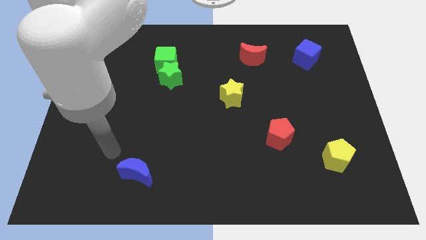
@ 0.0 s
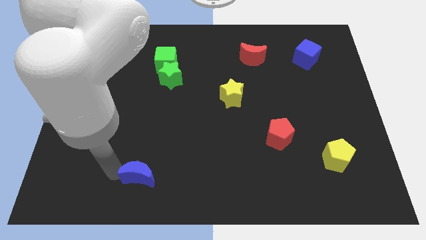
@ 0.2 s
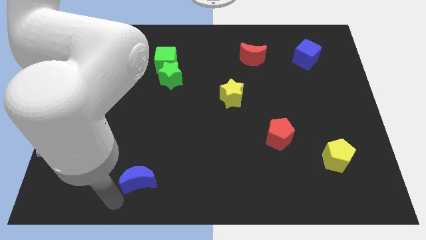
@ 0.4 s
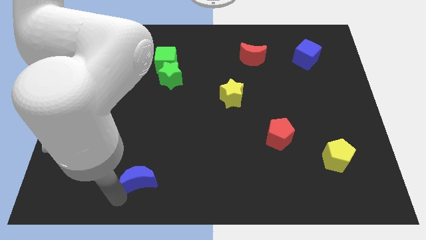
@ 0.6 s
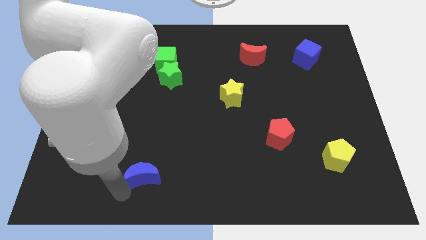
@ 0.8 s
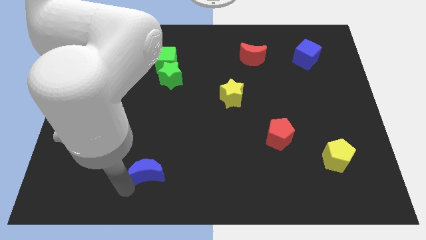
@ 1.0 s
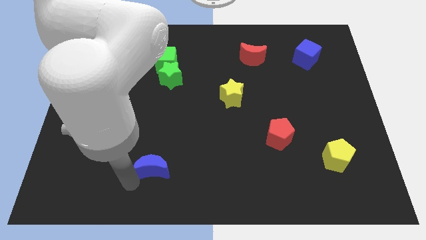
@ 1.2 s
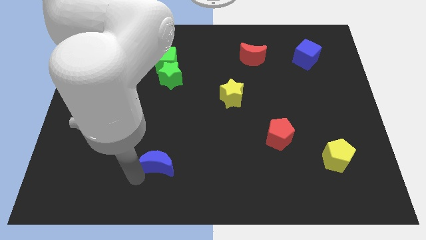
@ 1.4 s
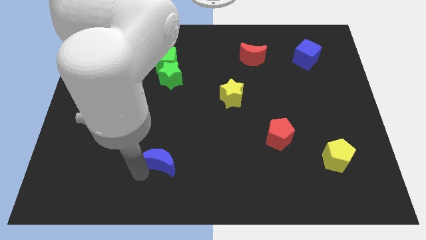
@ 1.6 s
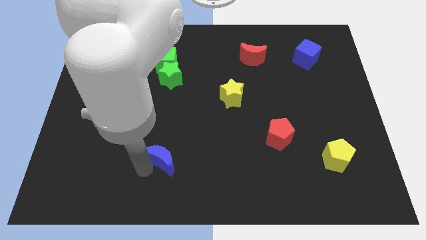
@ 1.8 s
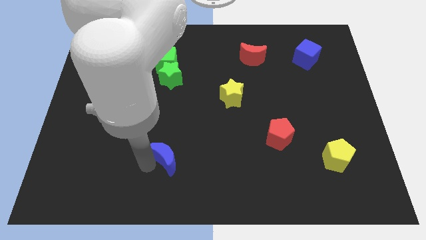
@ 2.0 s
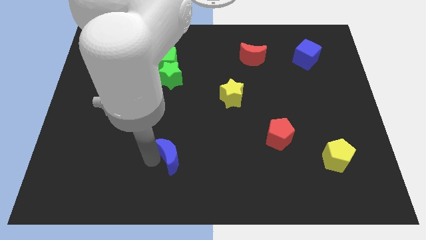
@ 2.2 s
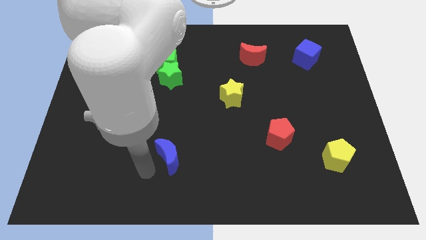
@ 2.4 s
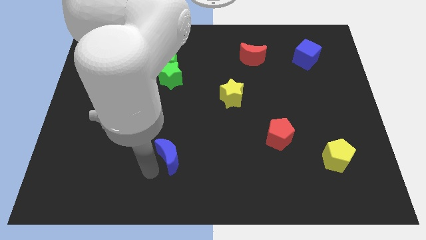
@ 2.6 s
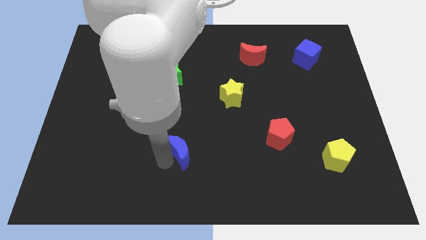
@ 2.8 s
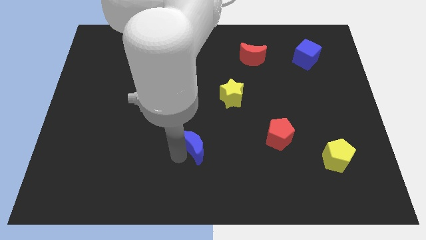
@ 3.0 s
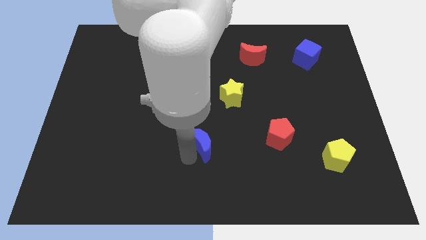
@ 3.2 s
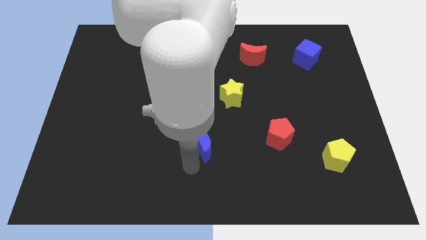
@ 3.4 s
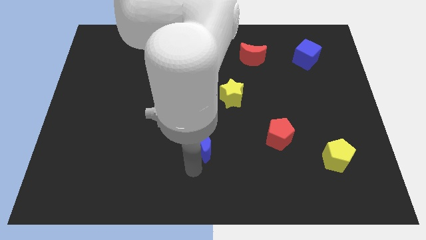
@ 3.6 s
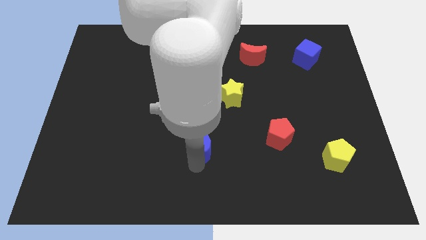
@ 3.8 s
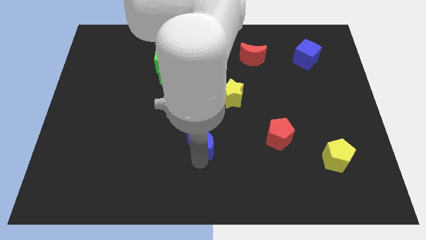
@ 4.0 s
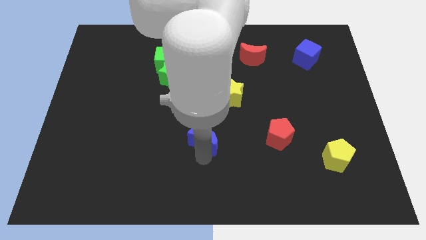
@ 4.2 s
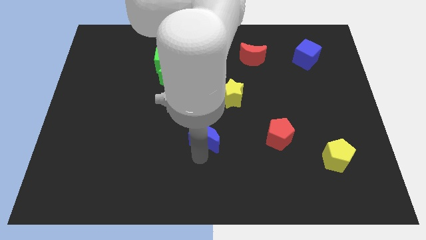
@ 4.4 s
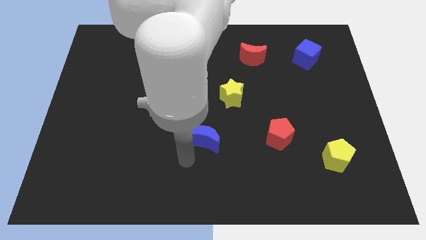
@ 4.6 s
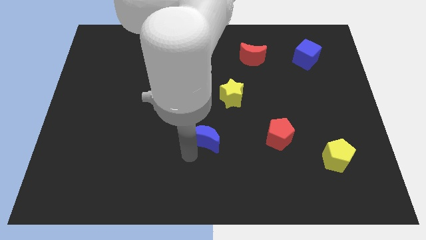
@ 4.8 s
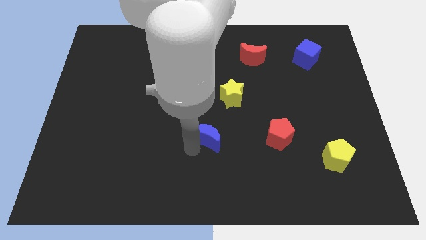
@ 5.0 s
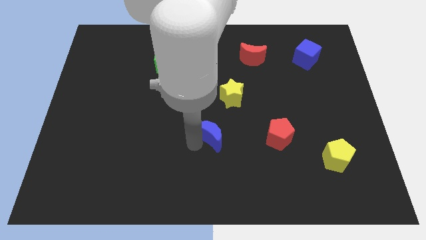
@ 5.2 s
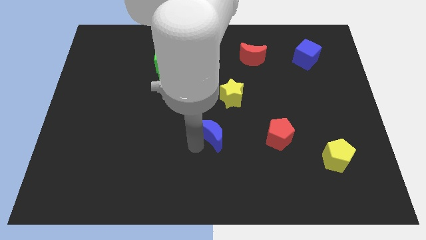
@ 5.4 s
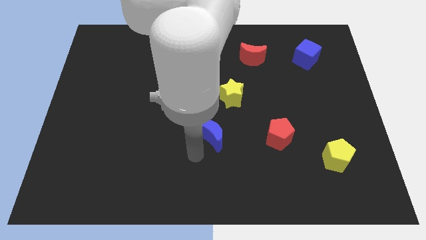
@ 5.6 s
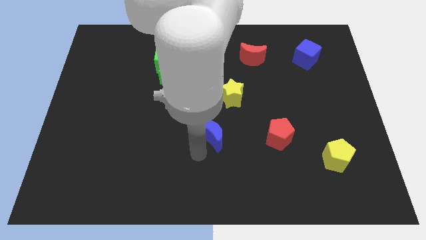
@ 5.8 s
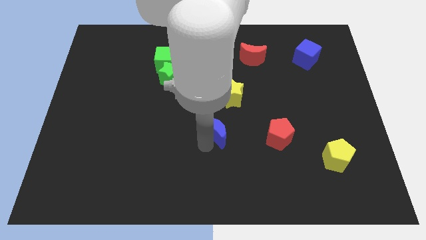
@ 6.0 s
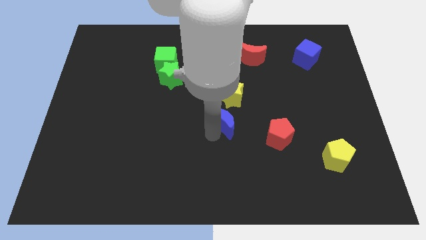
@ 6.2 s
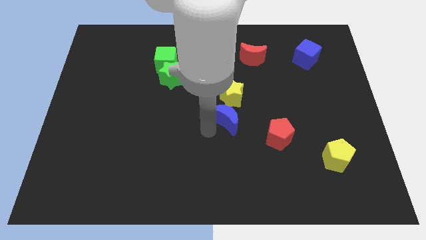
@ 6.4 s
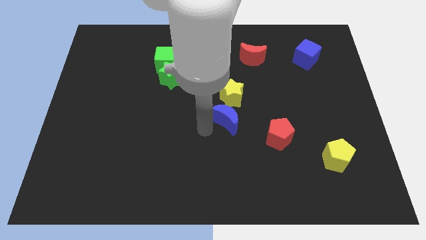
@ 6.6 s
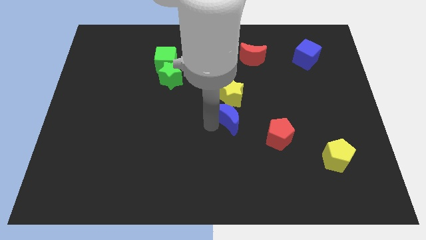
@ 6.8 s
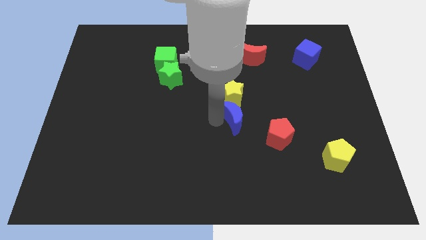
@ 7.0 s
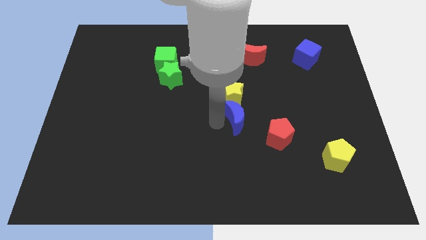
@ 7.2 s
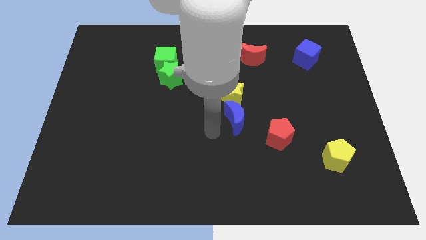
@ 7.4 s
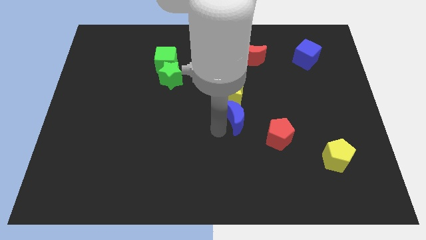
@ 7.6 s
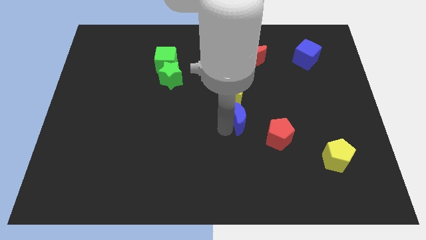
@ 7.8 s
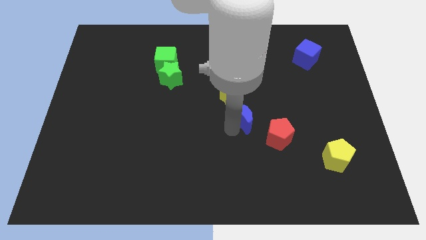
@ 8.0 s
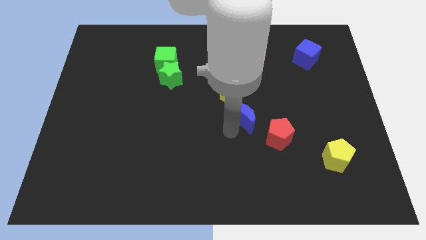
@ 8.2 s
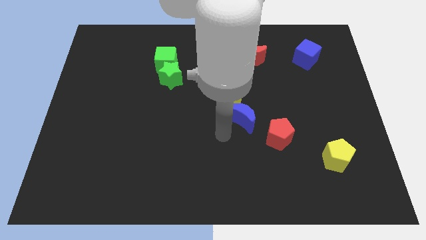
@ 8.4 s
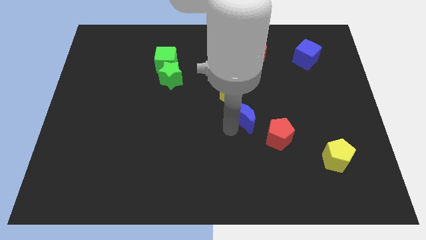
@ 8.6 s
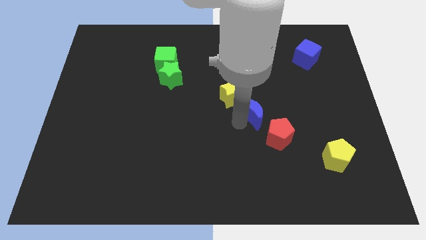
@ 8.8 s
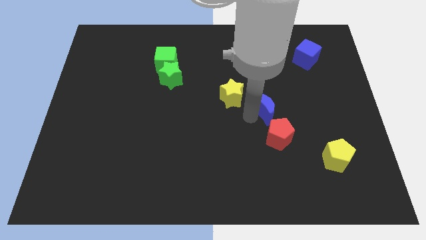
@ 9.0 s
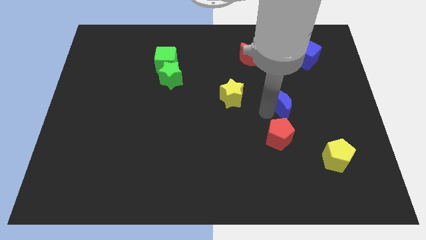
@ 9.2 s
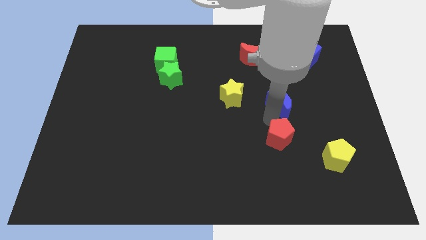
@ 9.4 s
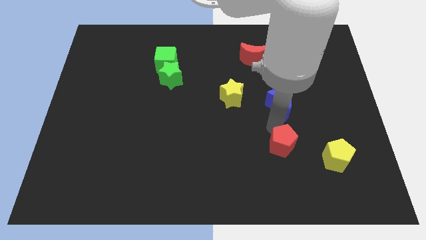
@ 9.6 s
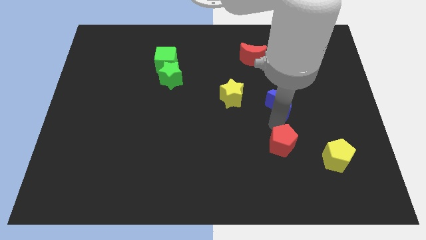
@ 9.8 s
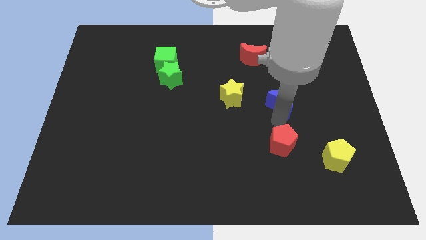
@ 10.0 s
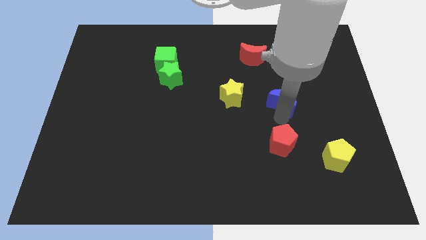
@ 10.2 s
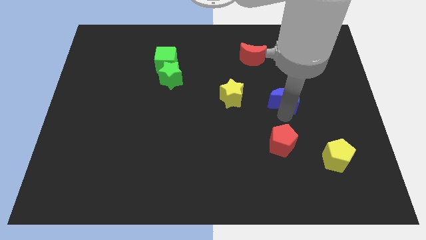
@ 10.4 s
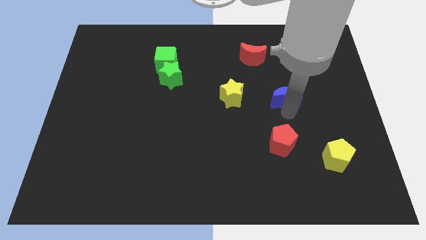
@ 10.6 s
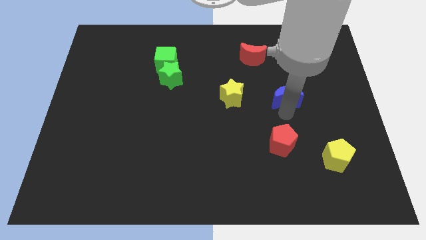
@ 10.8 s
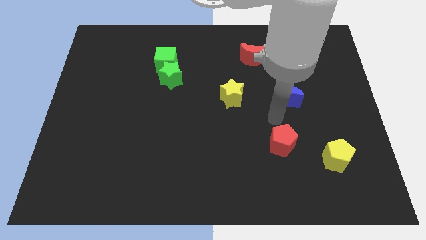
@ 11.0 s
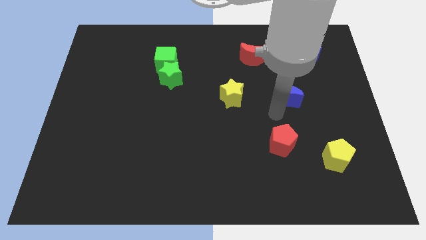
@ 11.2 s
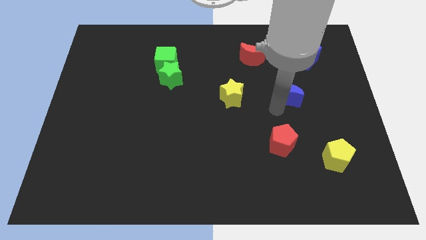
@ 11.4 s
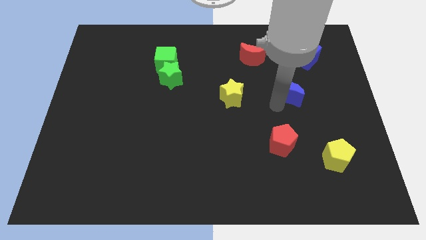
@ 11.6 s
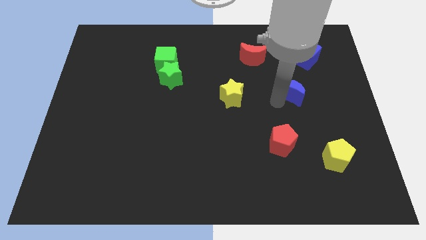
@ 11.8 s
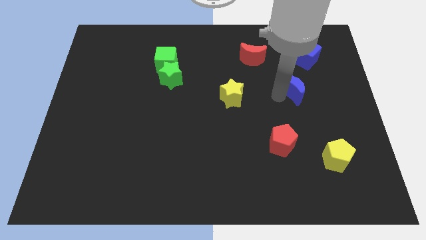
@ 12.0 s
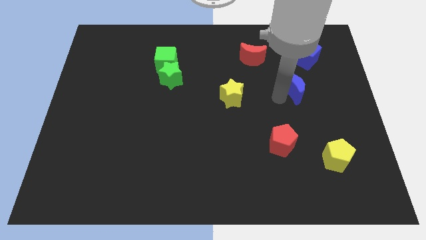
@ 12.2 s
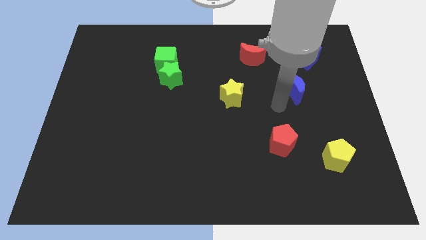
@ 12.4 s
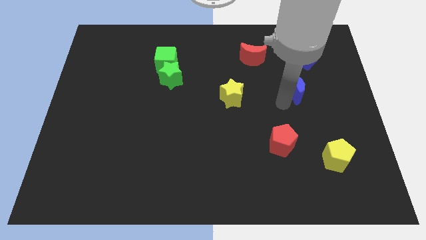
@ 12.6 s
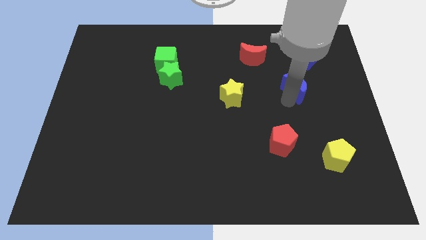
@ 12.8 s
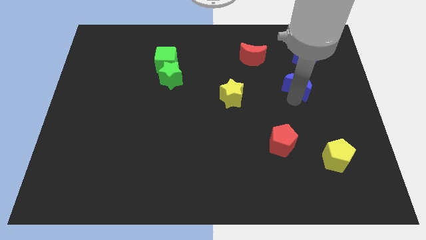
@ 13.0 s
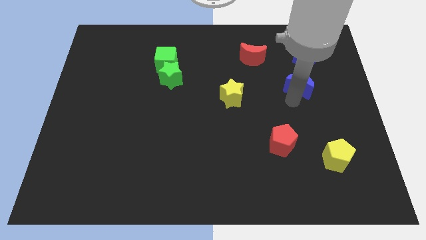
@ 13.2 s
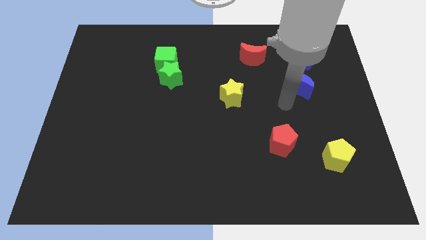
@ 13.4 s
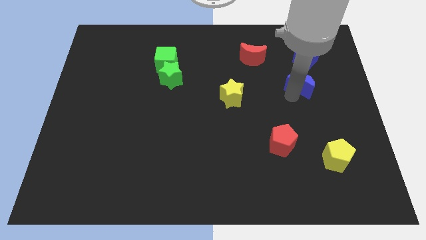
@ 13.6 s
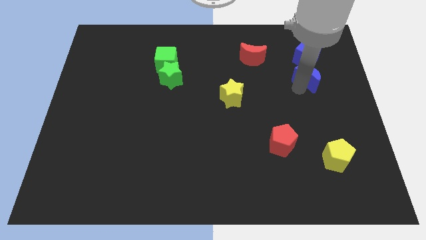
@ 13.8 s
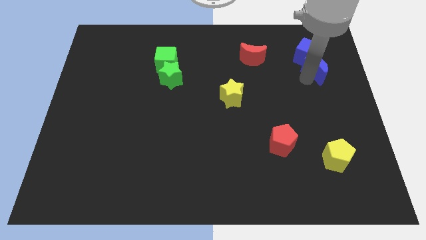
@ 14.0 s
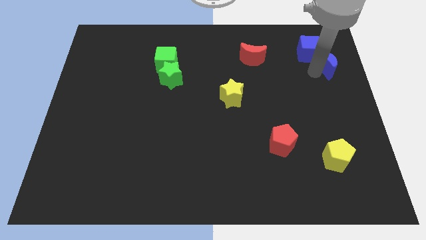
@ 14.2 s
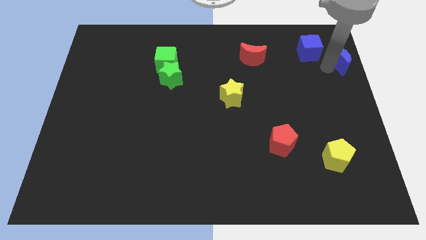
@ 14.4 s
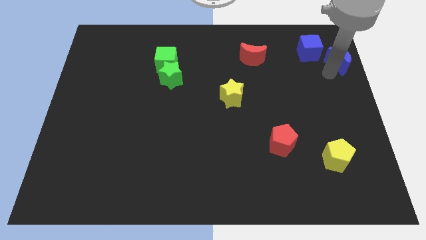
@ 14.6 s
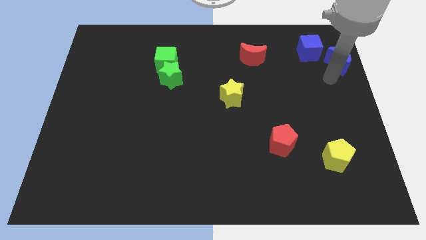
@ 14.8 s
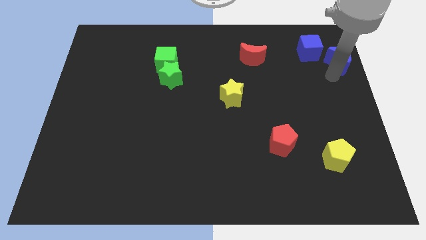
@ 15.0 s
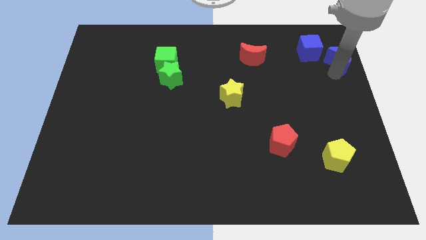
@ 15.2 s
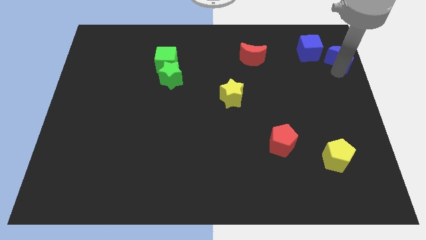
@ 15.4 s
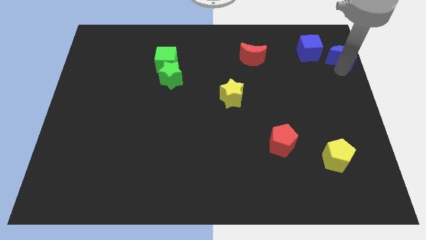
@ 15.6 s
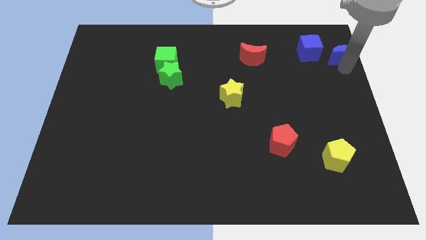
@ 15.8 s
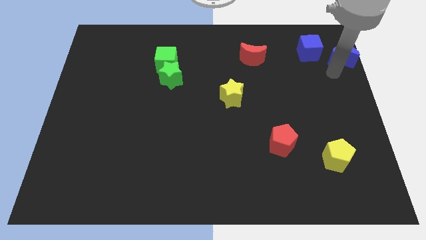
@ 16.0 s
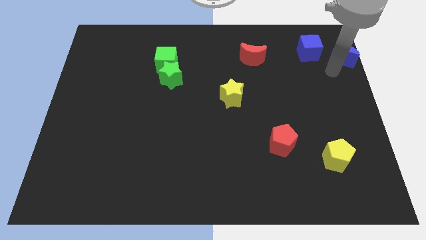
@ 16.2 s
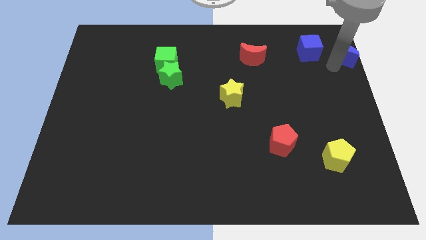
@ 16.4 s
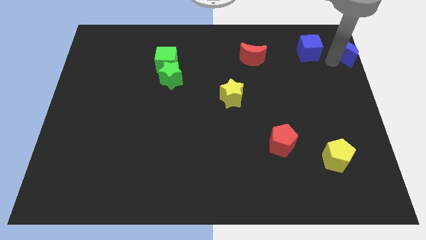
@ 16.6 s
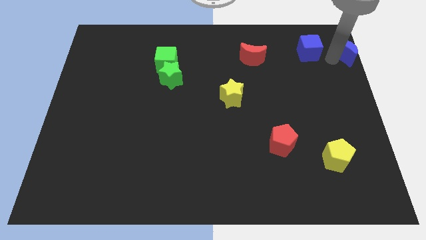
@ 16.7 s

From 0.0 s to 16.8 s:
push the blue moon to the top right of the board
